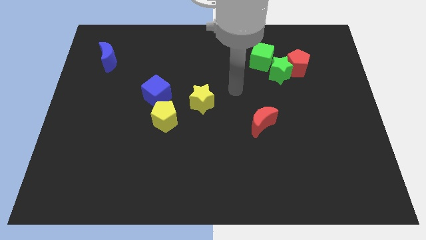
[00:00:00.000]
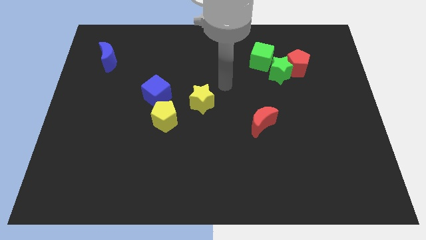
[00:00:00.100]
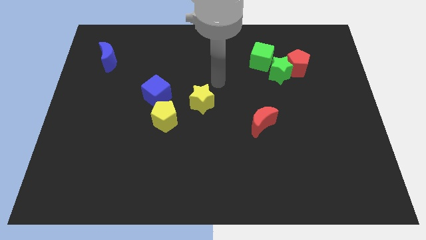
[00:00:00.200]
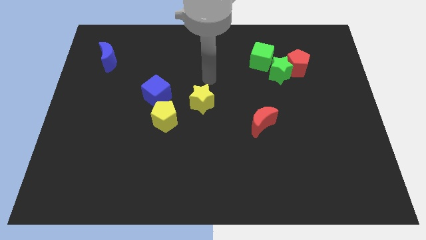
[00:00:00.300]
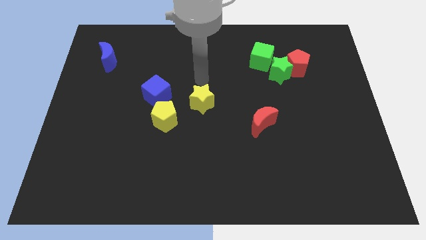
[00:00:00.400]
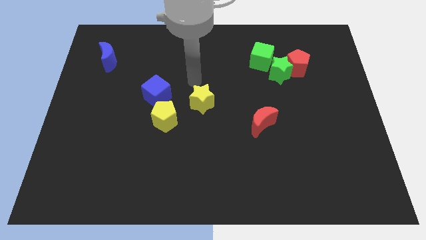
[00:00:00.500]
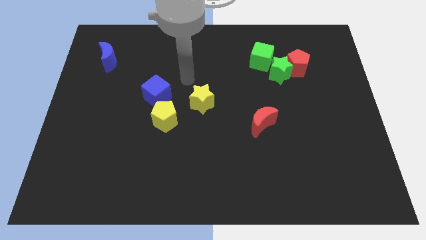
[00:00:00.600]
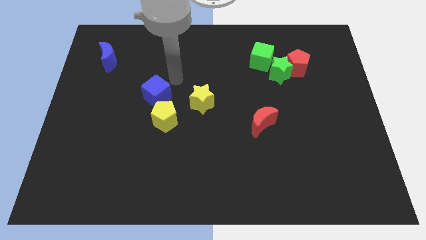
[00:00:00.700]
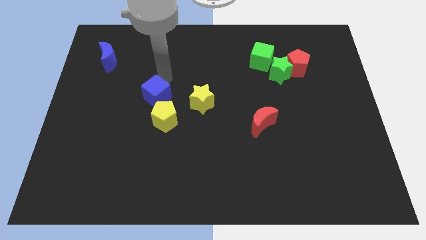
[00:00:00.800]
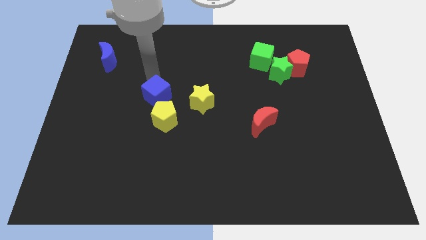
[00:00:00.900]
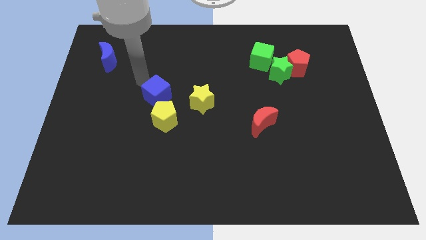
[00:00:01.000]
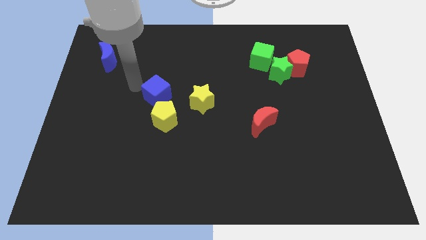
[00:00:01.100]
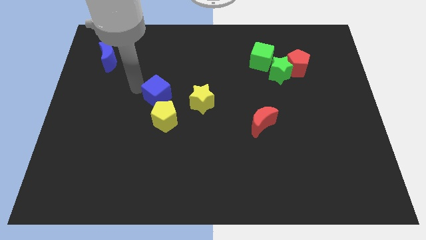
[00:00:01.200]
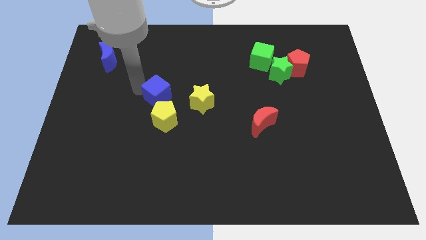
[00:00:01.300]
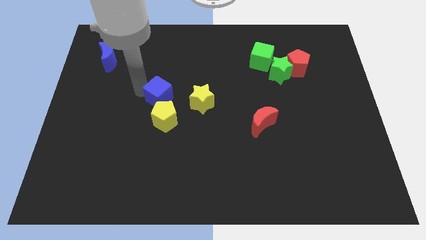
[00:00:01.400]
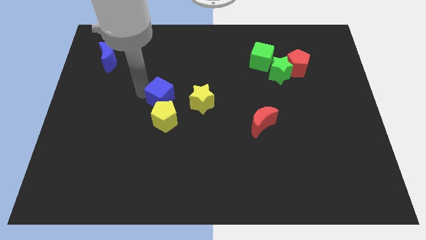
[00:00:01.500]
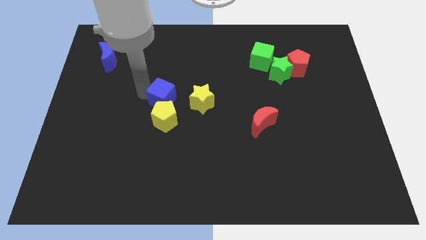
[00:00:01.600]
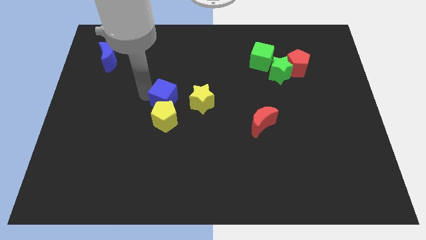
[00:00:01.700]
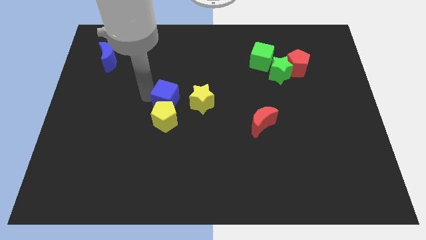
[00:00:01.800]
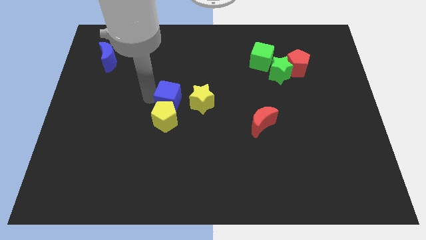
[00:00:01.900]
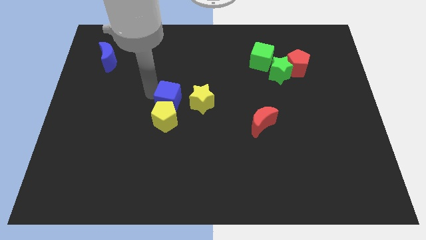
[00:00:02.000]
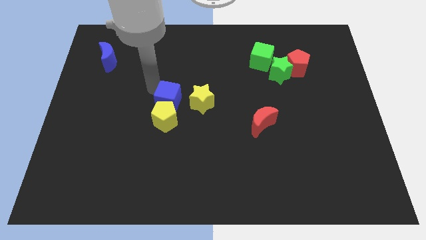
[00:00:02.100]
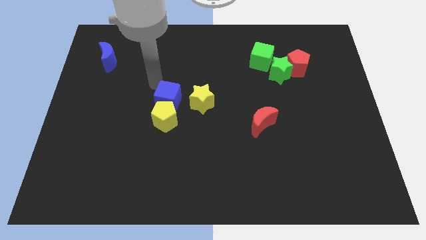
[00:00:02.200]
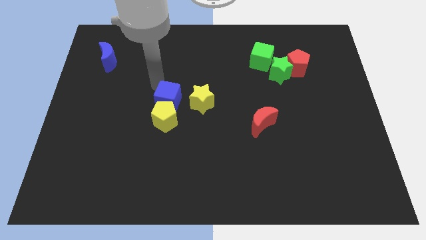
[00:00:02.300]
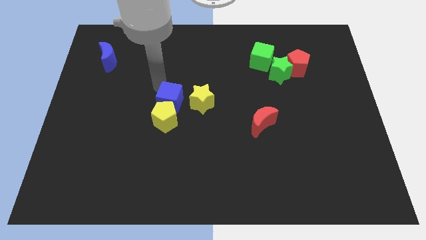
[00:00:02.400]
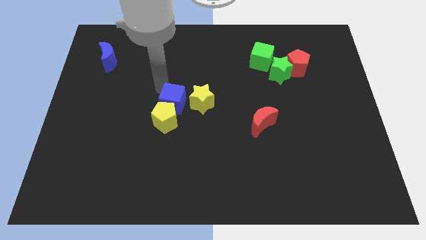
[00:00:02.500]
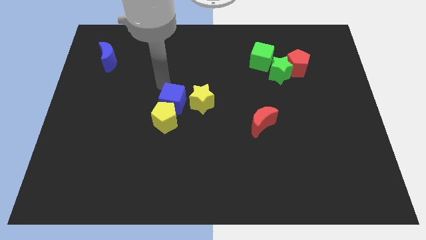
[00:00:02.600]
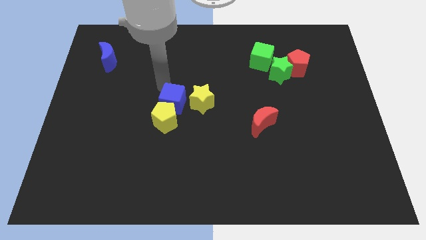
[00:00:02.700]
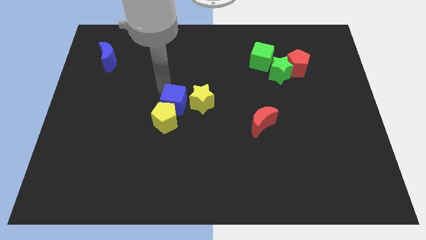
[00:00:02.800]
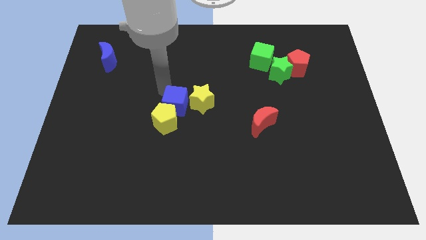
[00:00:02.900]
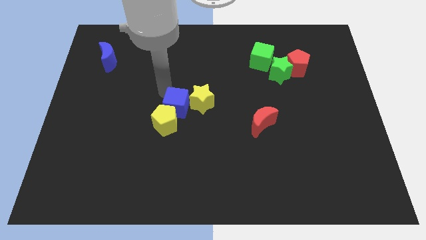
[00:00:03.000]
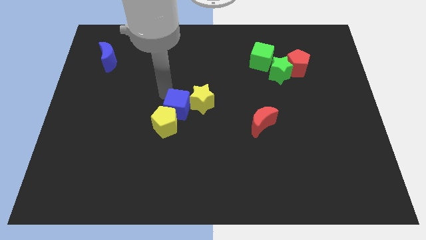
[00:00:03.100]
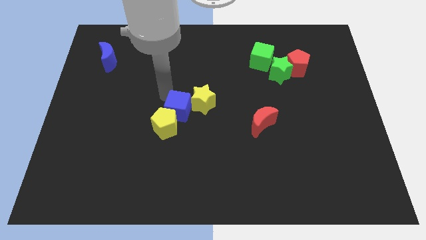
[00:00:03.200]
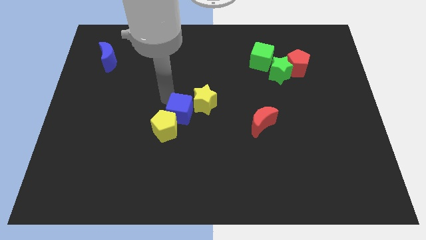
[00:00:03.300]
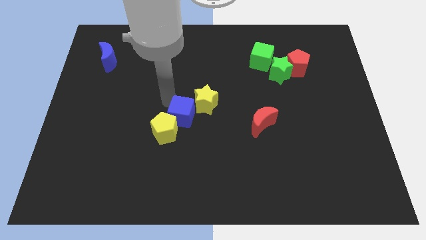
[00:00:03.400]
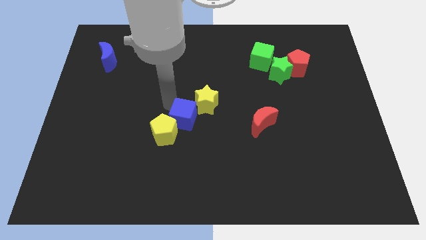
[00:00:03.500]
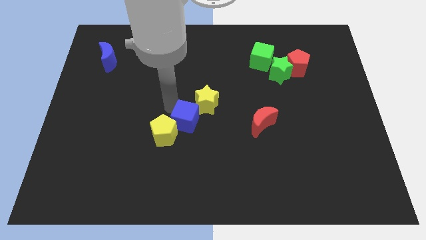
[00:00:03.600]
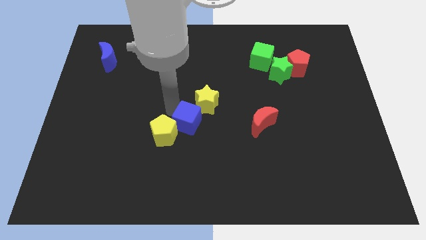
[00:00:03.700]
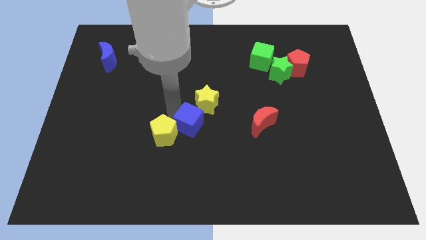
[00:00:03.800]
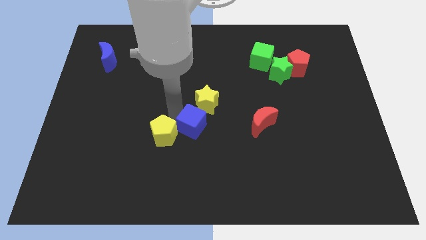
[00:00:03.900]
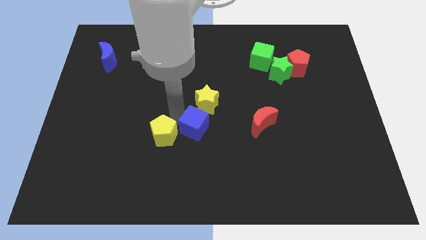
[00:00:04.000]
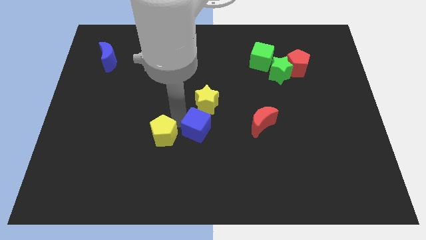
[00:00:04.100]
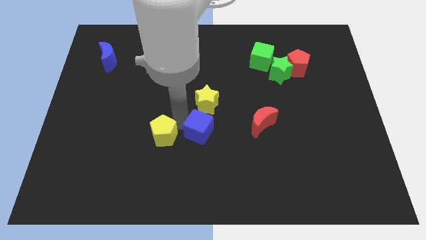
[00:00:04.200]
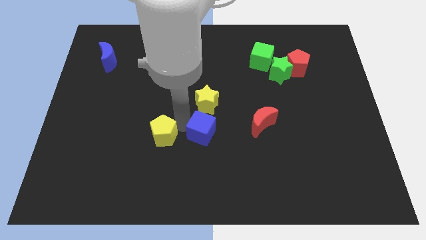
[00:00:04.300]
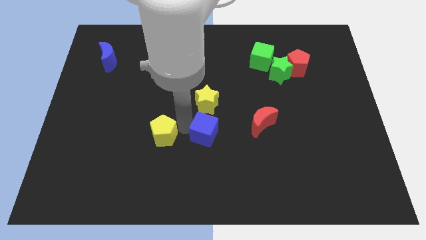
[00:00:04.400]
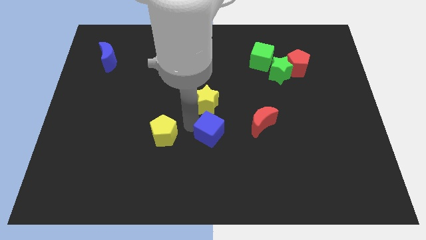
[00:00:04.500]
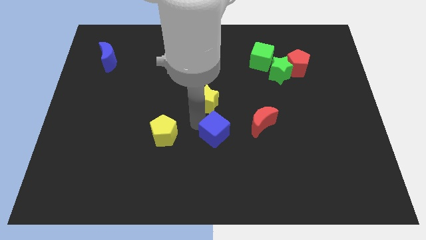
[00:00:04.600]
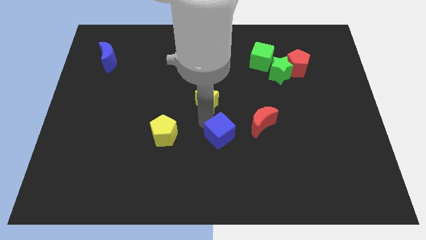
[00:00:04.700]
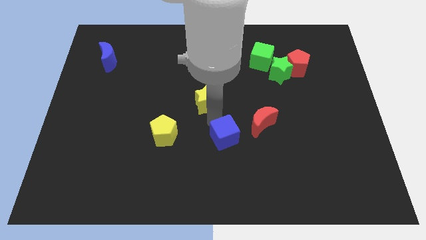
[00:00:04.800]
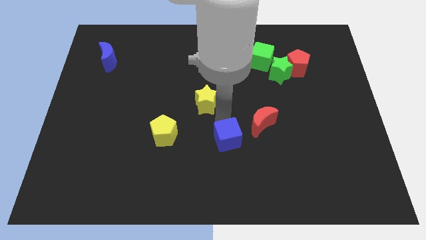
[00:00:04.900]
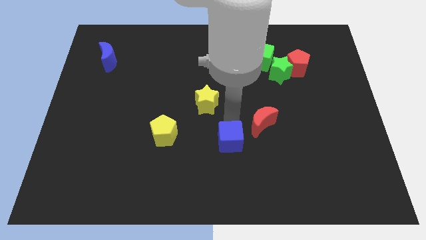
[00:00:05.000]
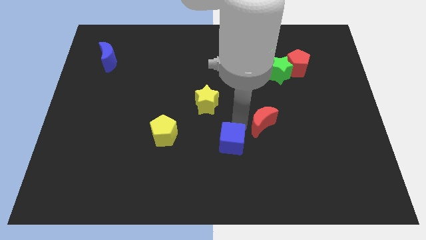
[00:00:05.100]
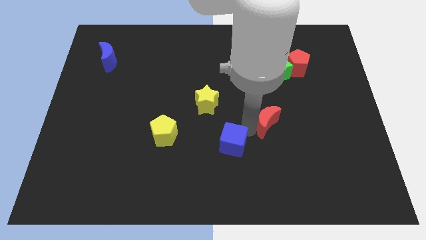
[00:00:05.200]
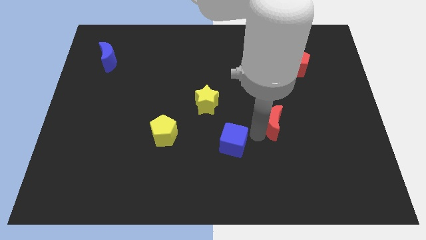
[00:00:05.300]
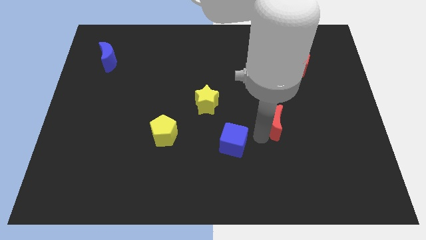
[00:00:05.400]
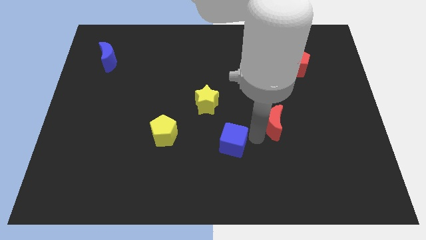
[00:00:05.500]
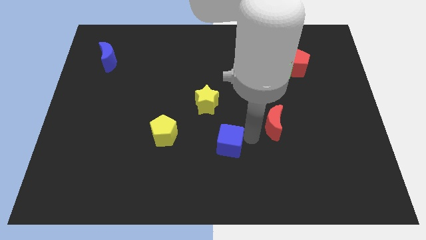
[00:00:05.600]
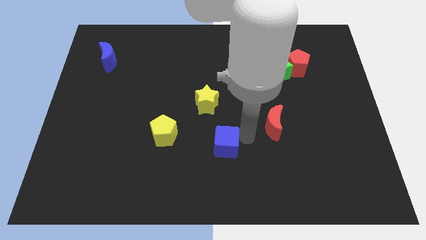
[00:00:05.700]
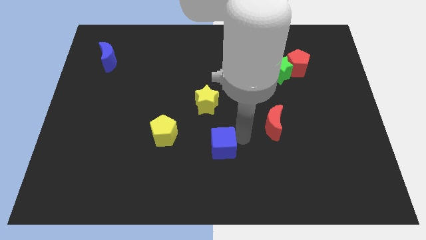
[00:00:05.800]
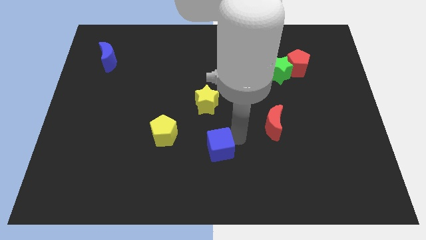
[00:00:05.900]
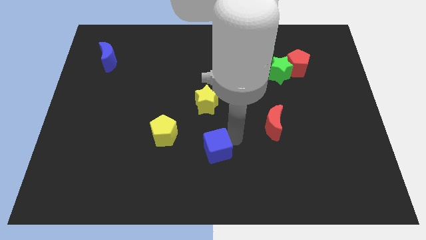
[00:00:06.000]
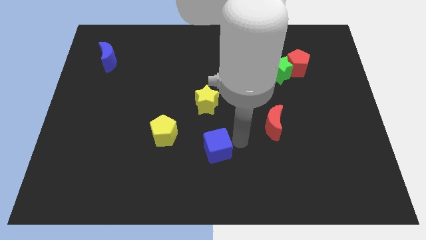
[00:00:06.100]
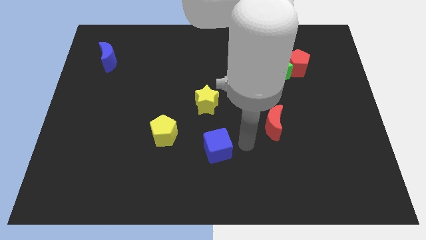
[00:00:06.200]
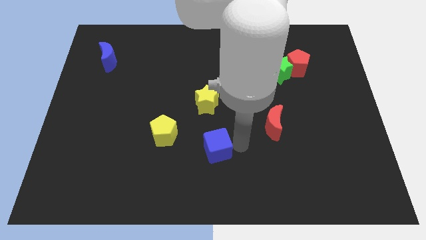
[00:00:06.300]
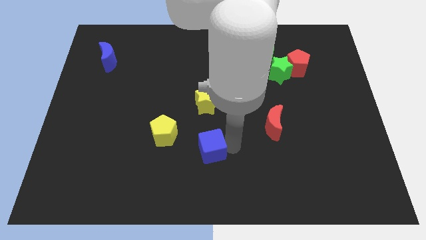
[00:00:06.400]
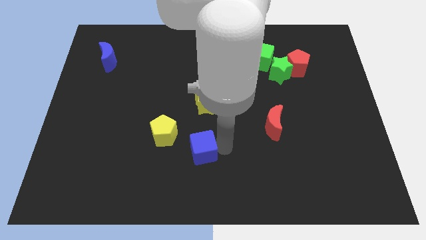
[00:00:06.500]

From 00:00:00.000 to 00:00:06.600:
push the blue cube to the bottom right side of the yellow pentagon
